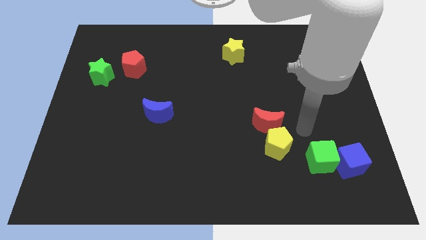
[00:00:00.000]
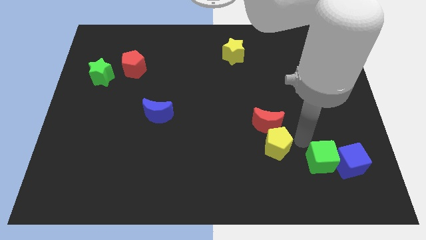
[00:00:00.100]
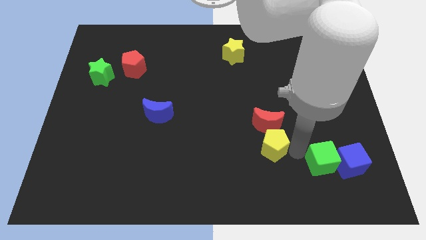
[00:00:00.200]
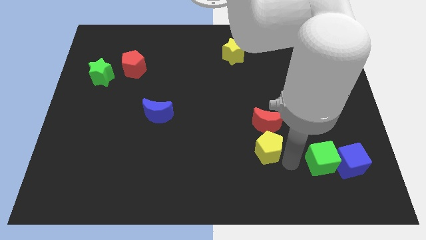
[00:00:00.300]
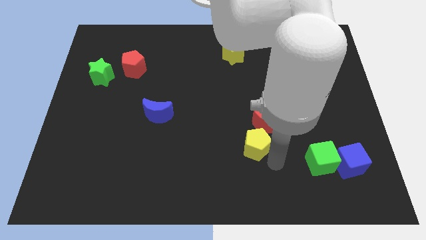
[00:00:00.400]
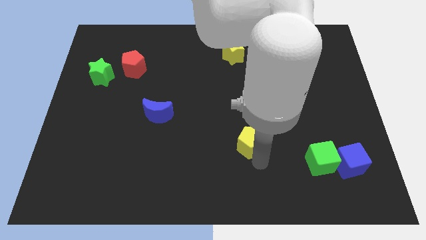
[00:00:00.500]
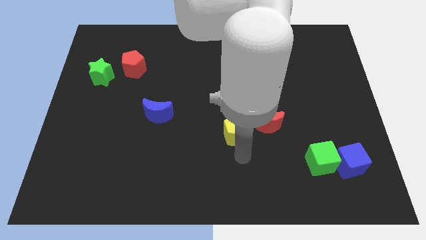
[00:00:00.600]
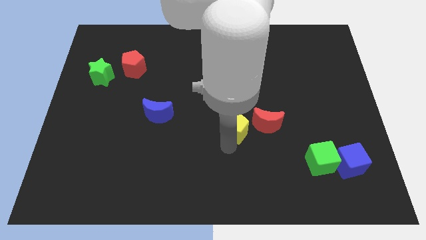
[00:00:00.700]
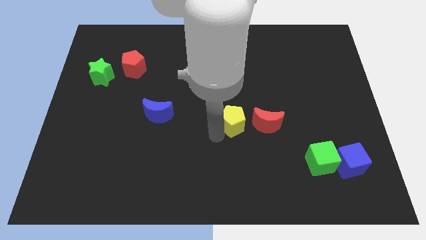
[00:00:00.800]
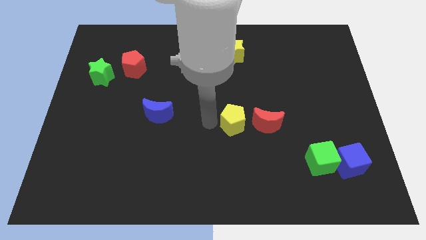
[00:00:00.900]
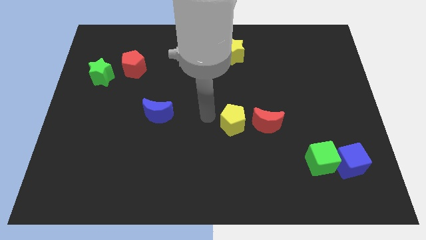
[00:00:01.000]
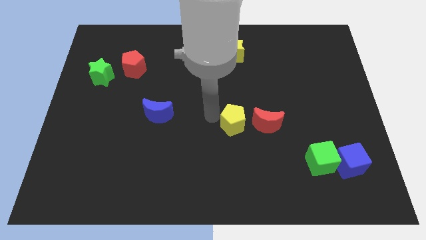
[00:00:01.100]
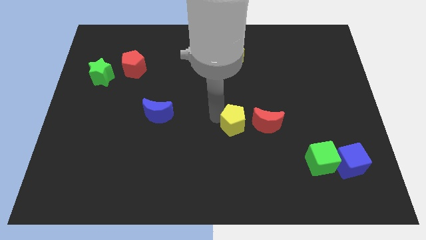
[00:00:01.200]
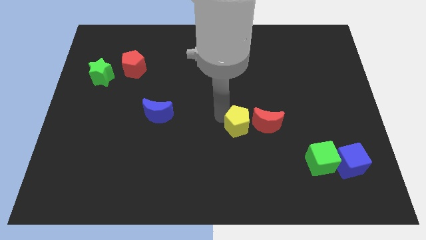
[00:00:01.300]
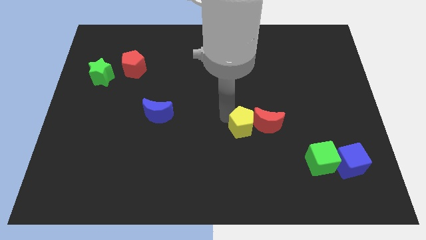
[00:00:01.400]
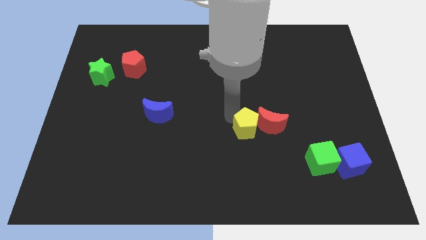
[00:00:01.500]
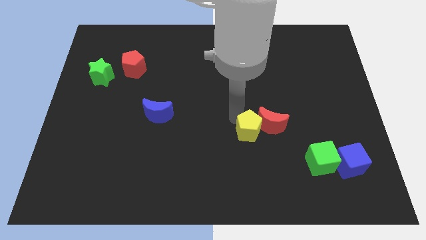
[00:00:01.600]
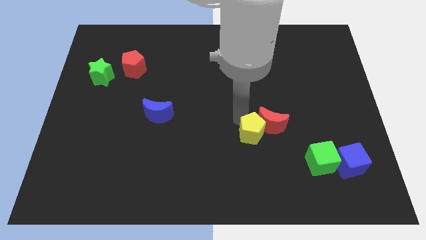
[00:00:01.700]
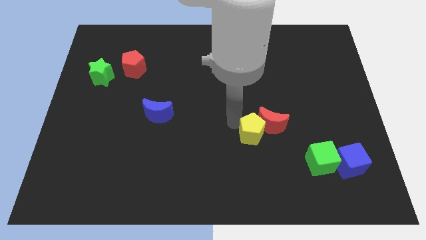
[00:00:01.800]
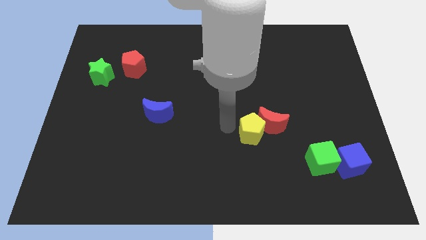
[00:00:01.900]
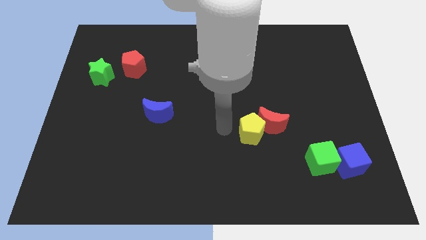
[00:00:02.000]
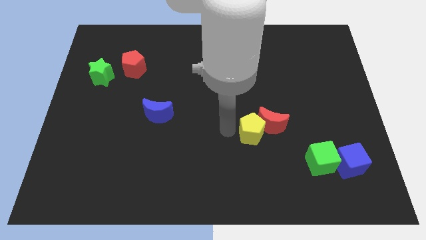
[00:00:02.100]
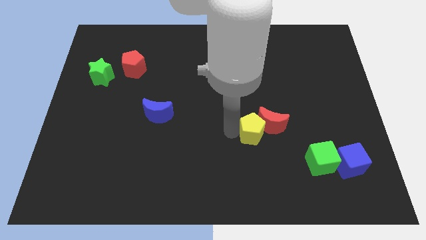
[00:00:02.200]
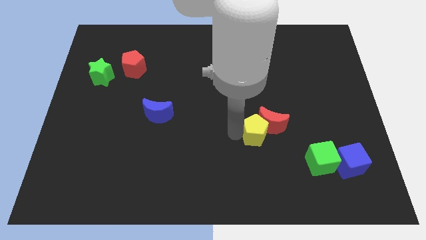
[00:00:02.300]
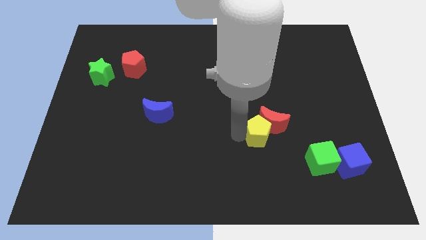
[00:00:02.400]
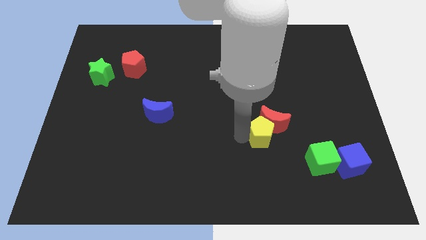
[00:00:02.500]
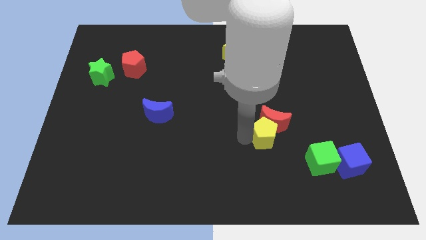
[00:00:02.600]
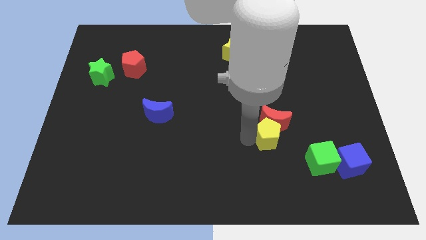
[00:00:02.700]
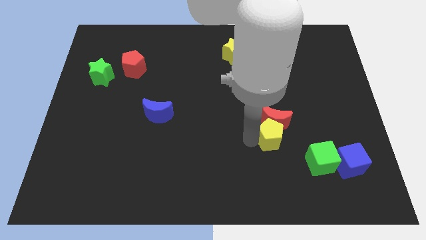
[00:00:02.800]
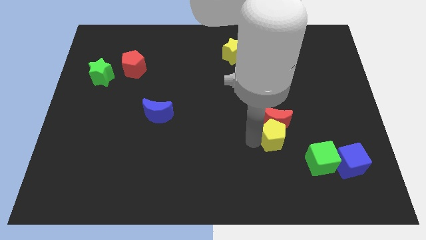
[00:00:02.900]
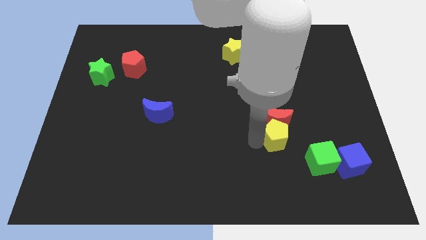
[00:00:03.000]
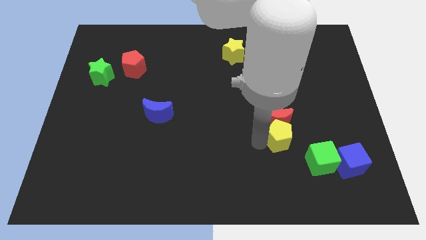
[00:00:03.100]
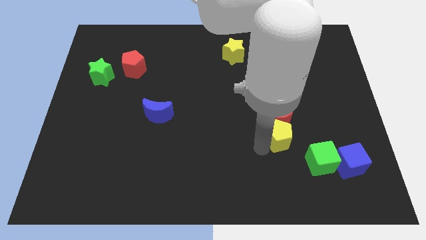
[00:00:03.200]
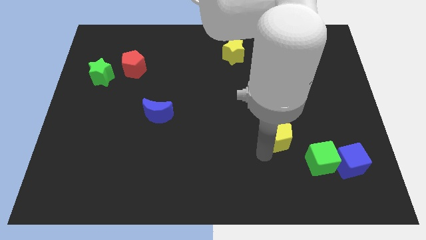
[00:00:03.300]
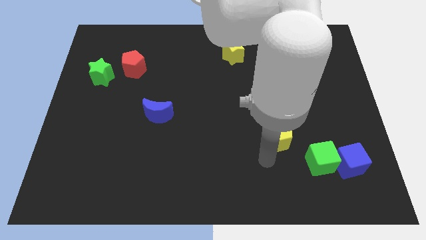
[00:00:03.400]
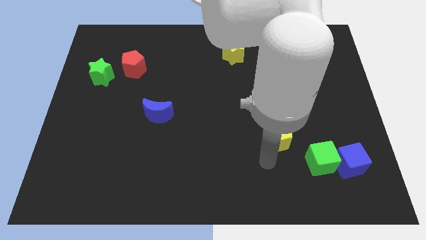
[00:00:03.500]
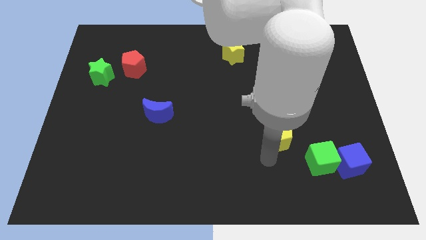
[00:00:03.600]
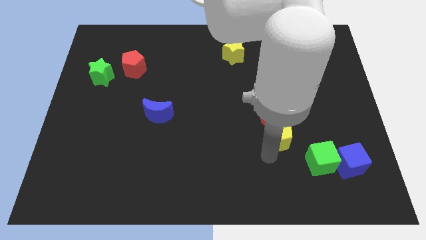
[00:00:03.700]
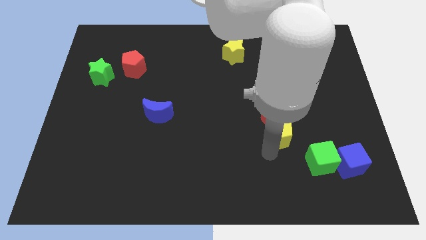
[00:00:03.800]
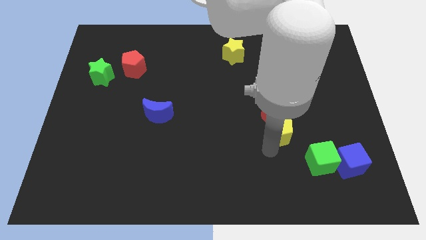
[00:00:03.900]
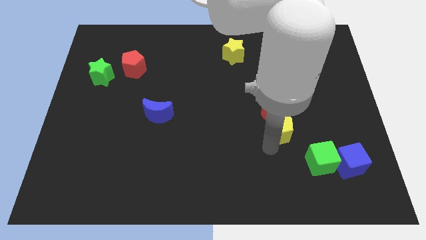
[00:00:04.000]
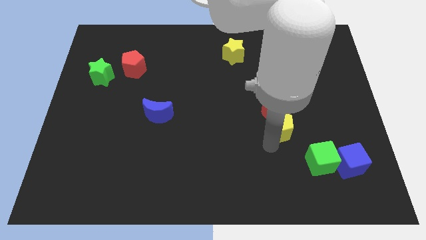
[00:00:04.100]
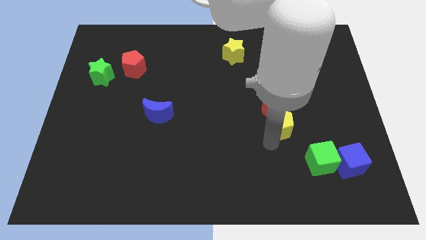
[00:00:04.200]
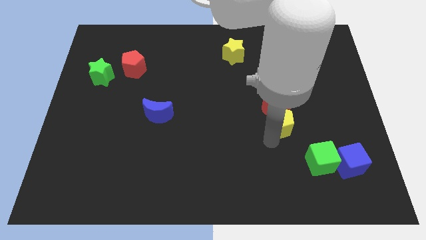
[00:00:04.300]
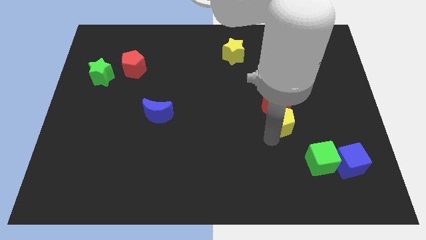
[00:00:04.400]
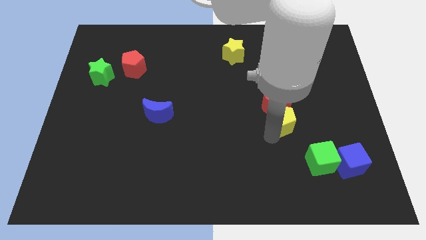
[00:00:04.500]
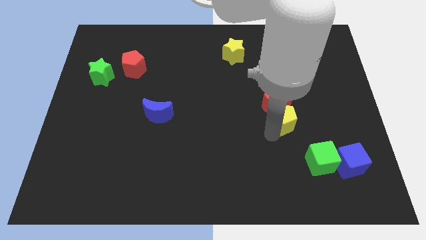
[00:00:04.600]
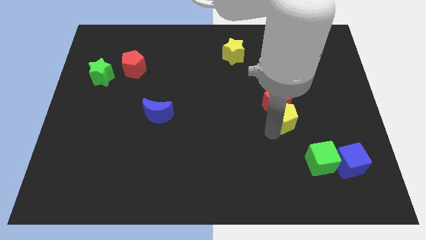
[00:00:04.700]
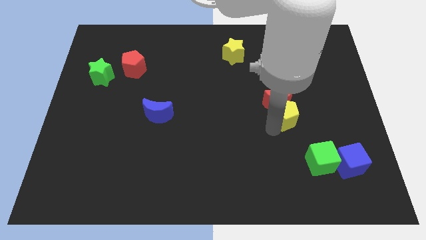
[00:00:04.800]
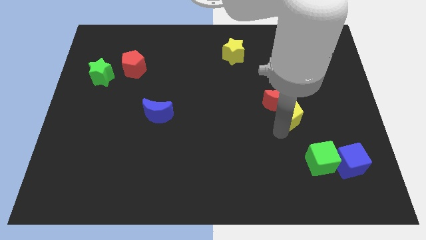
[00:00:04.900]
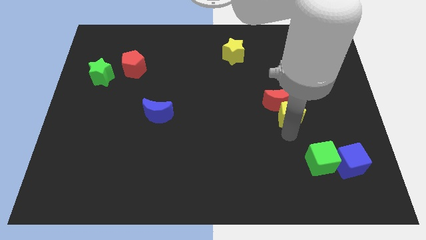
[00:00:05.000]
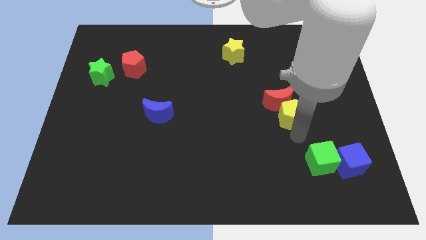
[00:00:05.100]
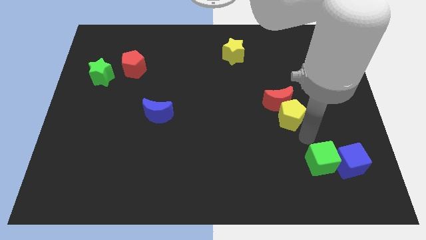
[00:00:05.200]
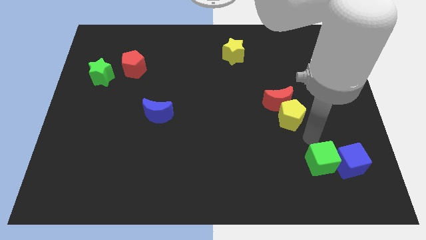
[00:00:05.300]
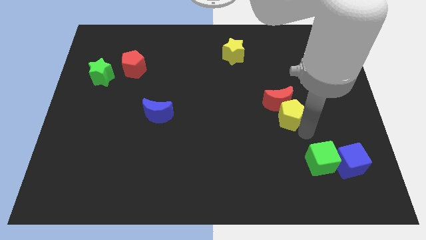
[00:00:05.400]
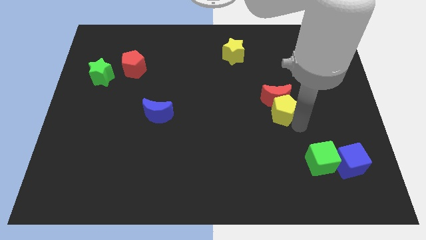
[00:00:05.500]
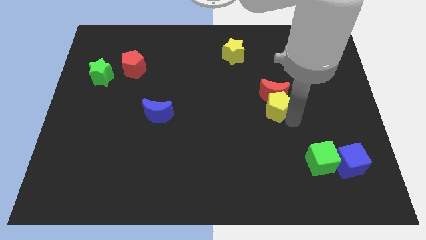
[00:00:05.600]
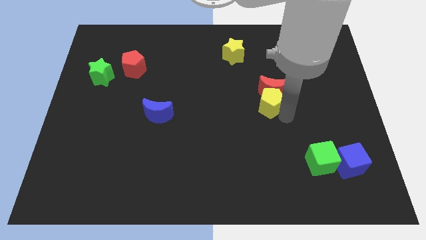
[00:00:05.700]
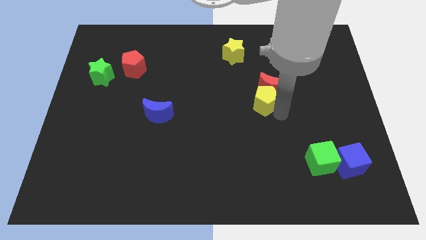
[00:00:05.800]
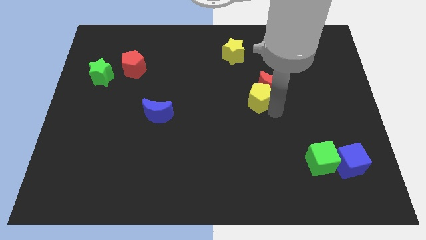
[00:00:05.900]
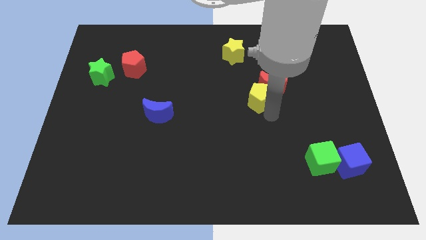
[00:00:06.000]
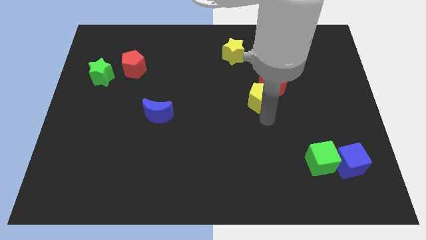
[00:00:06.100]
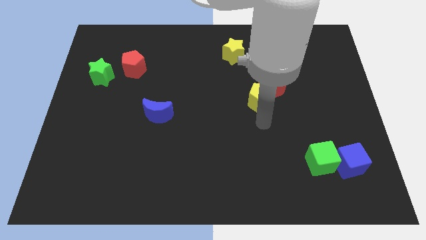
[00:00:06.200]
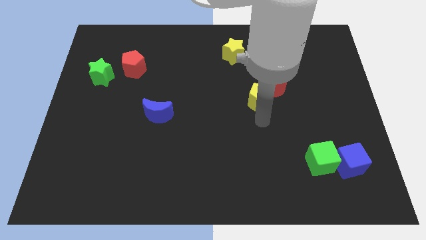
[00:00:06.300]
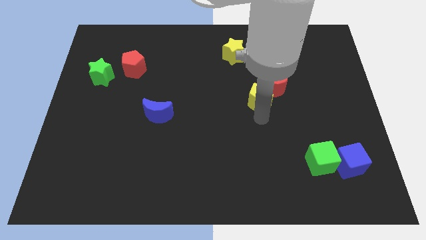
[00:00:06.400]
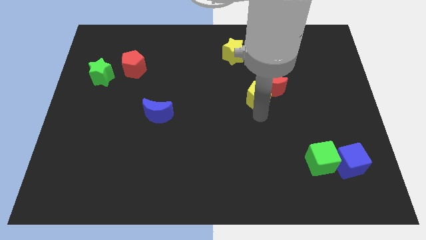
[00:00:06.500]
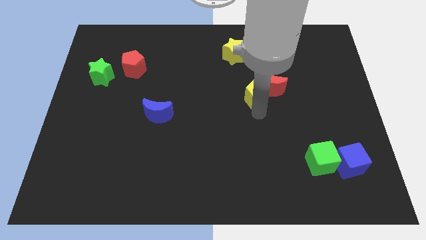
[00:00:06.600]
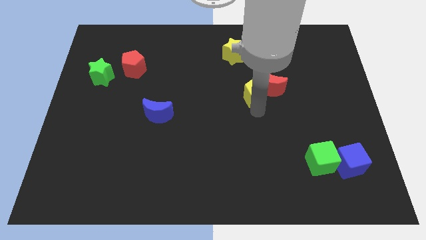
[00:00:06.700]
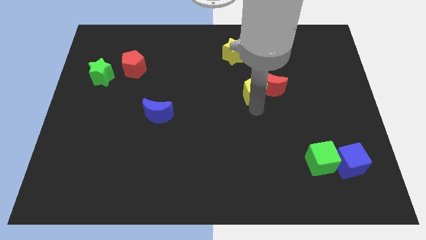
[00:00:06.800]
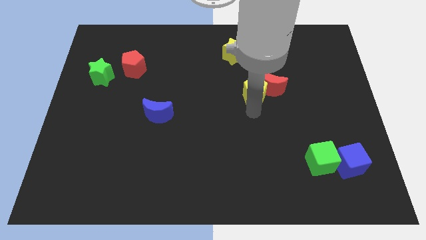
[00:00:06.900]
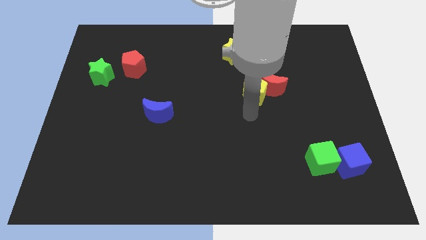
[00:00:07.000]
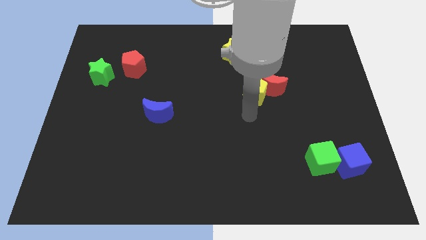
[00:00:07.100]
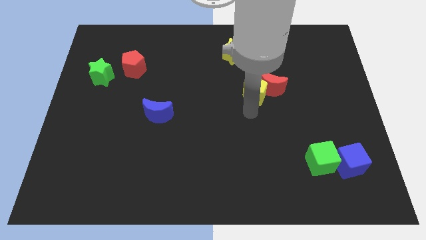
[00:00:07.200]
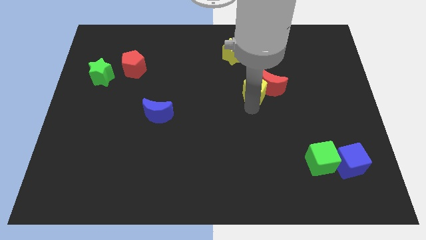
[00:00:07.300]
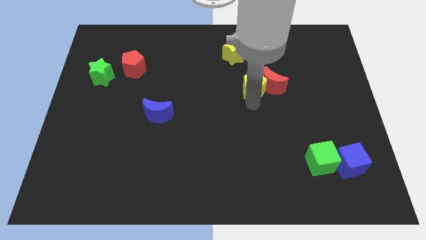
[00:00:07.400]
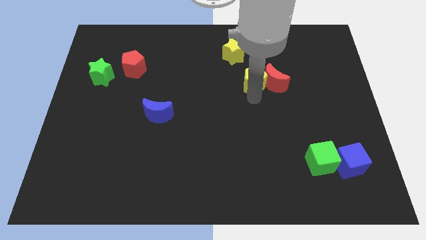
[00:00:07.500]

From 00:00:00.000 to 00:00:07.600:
put the yellow pentagon to the bottom right of the yellow star

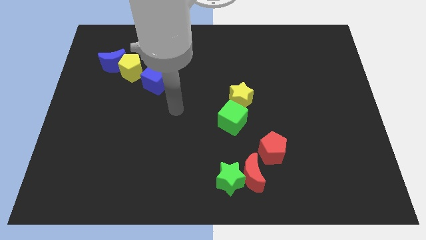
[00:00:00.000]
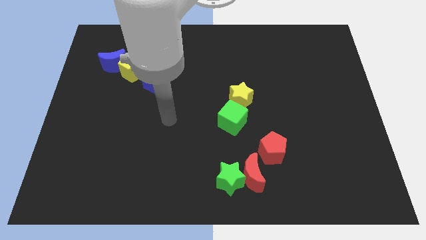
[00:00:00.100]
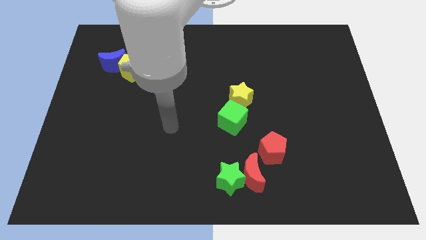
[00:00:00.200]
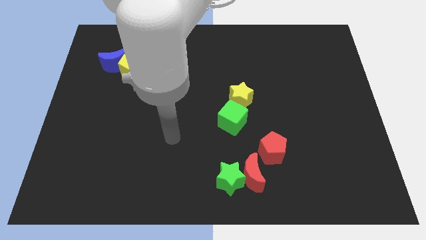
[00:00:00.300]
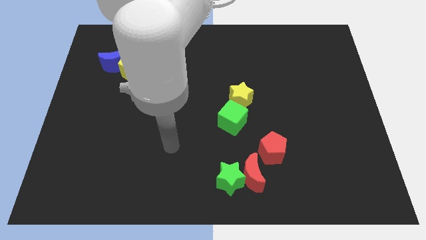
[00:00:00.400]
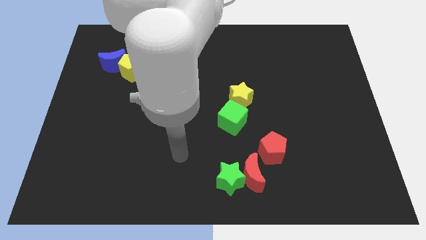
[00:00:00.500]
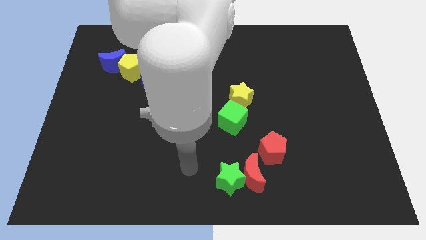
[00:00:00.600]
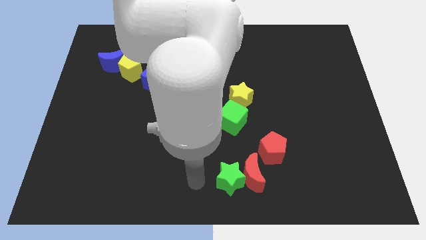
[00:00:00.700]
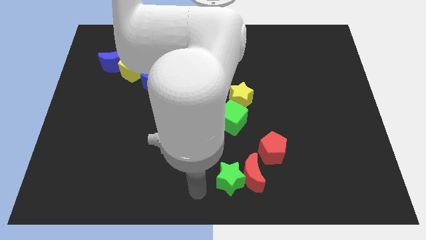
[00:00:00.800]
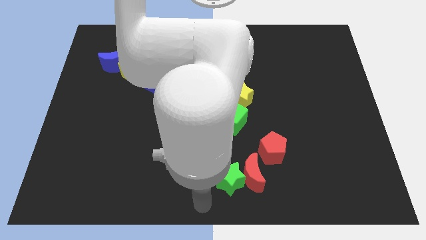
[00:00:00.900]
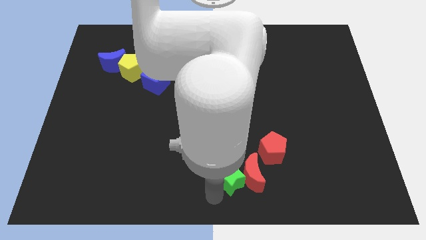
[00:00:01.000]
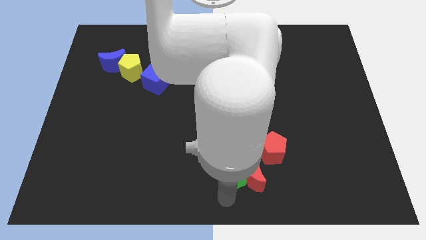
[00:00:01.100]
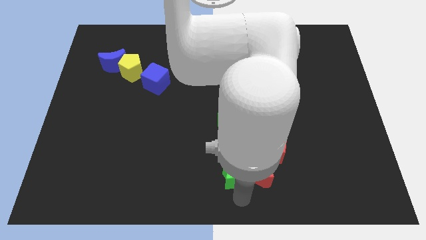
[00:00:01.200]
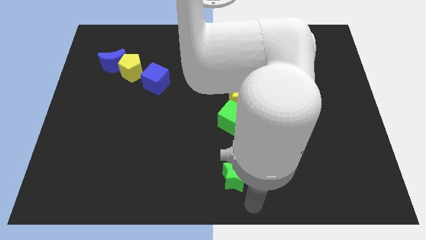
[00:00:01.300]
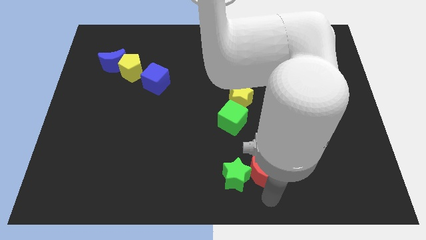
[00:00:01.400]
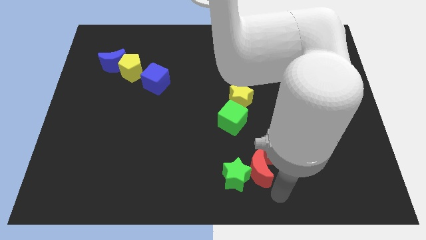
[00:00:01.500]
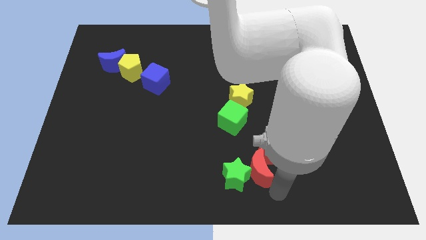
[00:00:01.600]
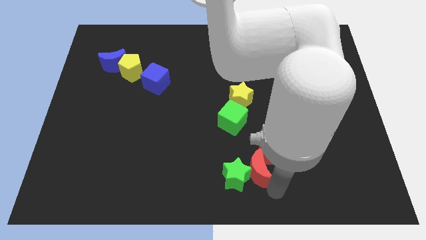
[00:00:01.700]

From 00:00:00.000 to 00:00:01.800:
slide the red moon to the left of the red pentagon
